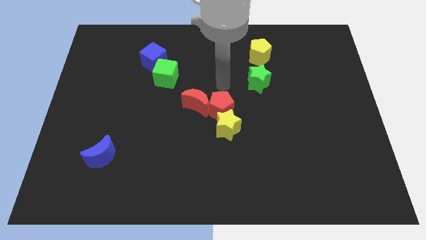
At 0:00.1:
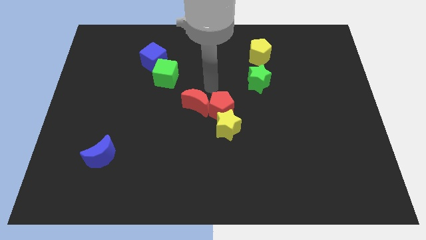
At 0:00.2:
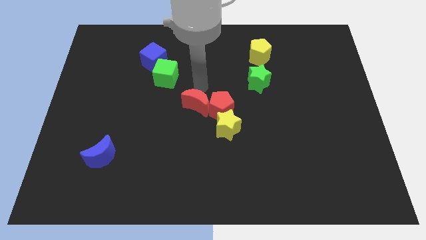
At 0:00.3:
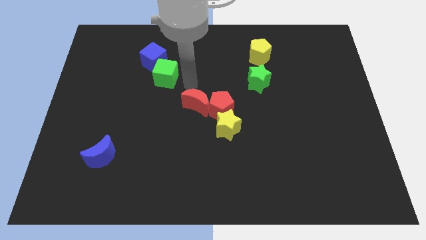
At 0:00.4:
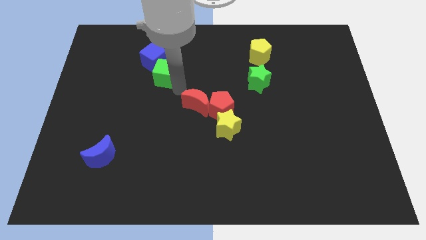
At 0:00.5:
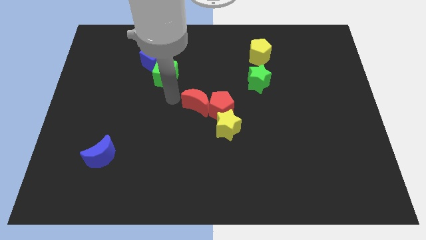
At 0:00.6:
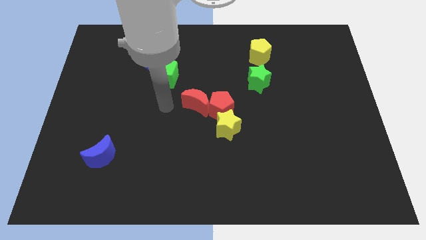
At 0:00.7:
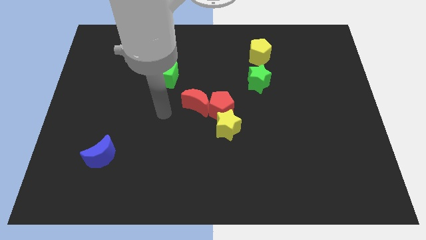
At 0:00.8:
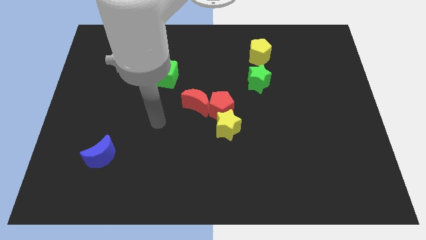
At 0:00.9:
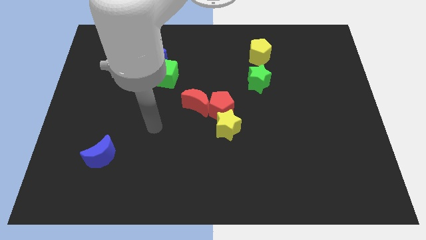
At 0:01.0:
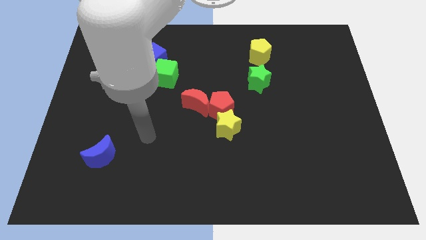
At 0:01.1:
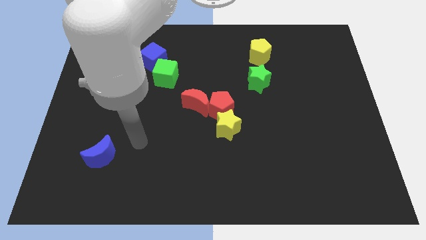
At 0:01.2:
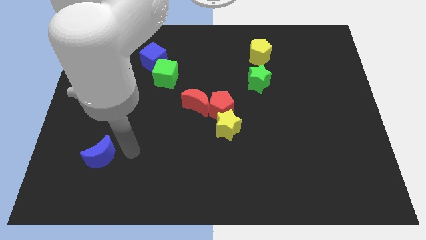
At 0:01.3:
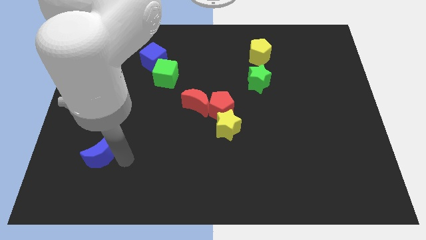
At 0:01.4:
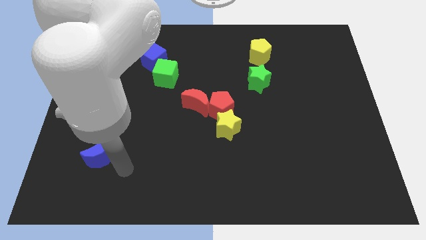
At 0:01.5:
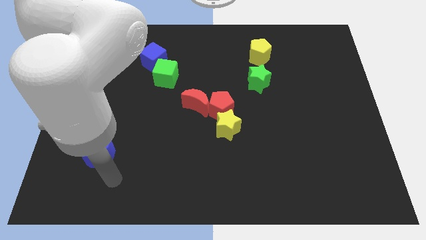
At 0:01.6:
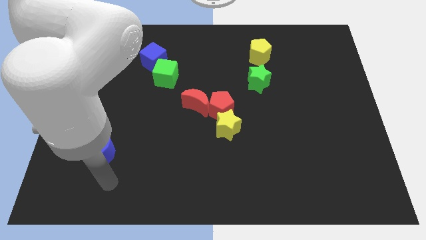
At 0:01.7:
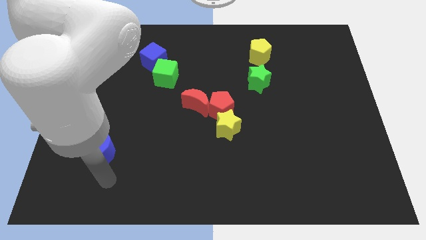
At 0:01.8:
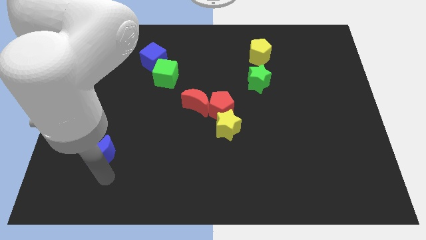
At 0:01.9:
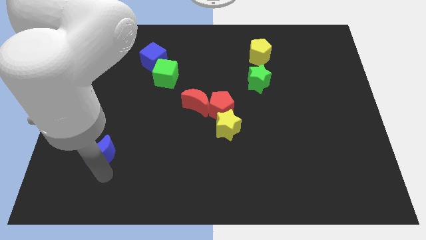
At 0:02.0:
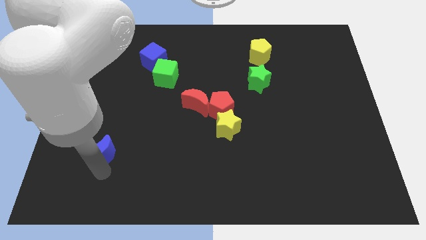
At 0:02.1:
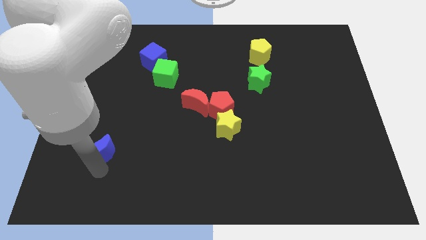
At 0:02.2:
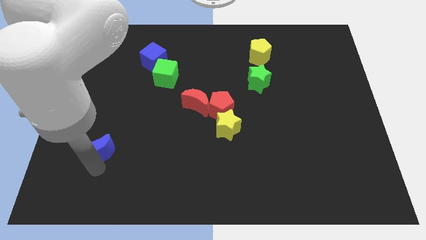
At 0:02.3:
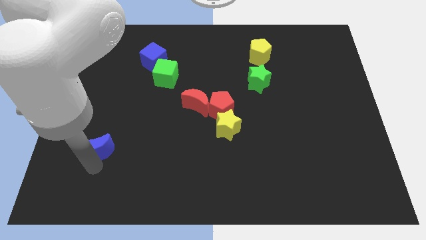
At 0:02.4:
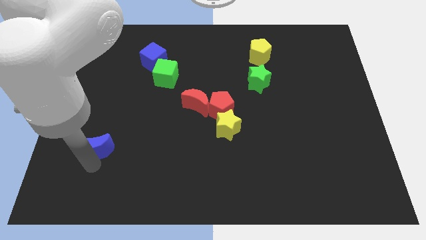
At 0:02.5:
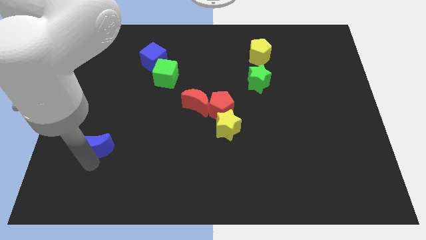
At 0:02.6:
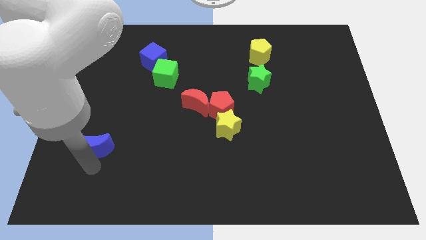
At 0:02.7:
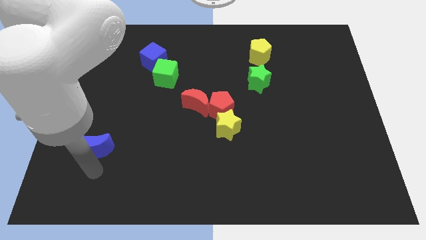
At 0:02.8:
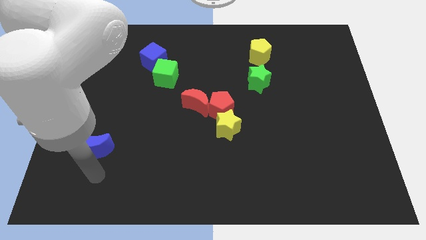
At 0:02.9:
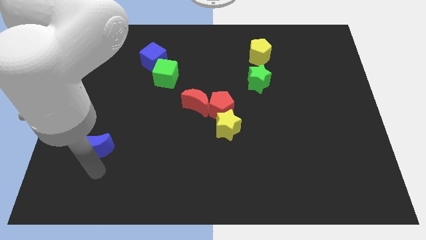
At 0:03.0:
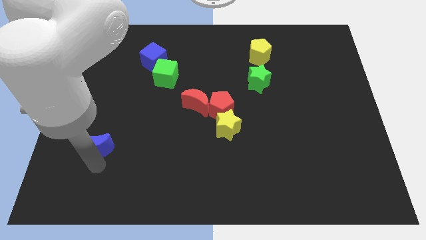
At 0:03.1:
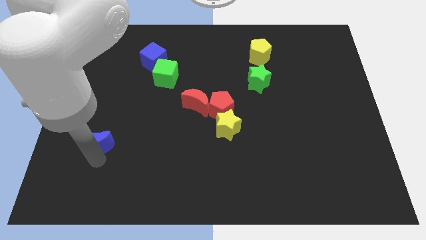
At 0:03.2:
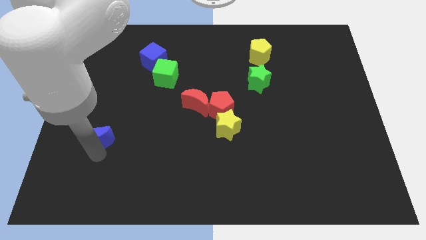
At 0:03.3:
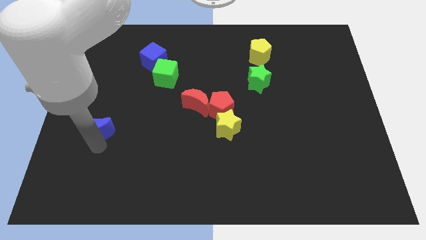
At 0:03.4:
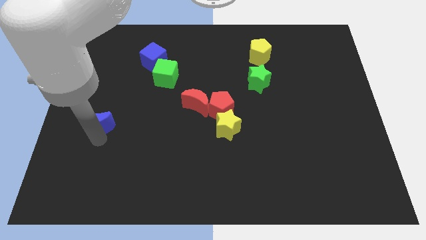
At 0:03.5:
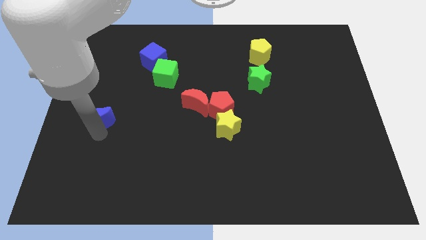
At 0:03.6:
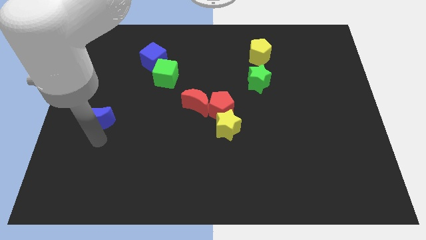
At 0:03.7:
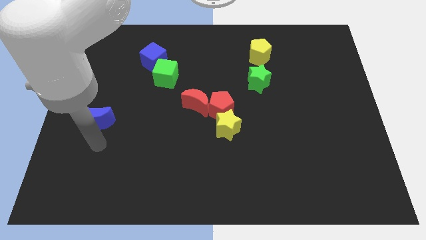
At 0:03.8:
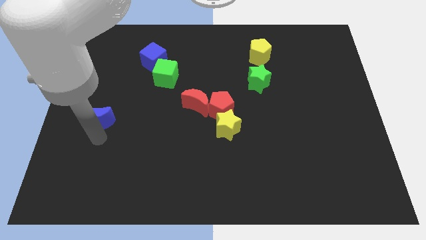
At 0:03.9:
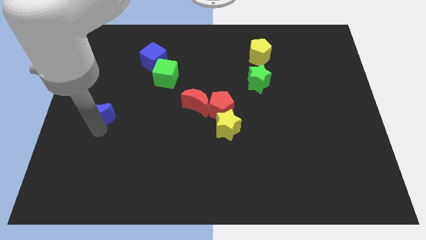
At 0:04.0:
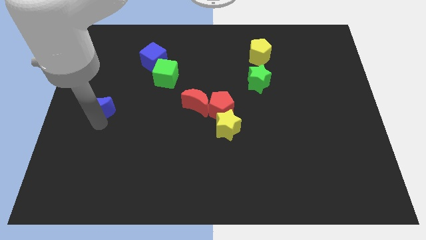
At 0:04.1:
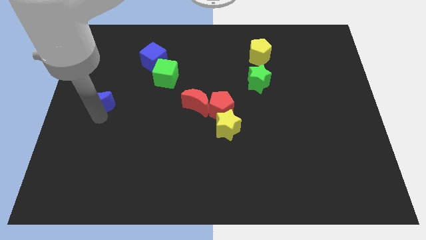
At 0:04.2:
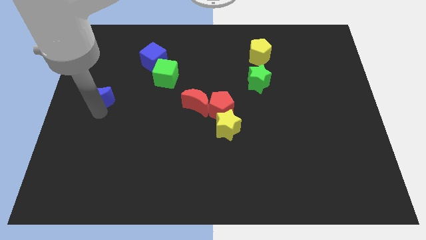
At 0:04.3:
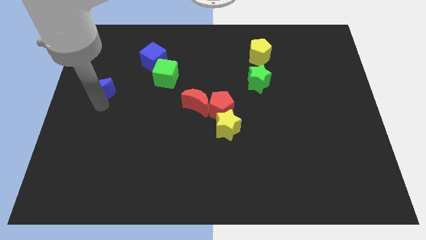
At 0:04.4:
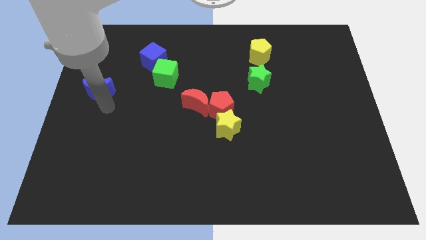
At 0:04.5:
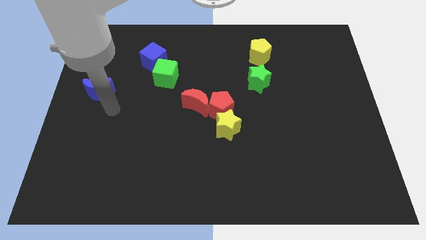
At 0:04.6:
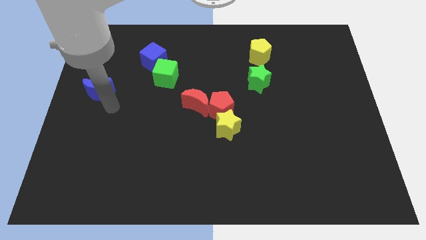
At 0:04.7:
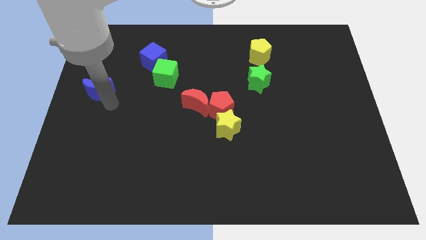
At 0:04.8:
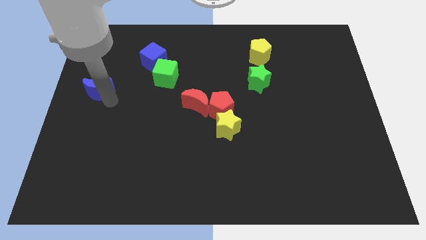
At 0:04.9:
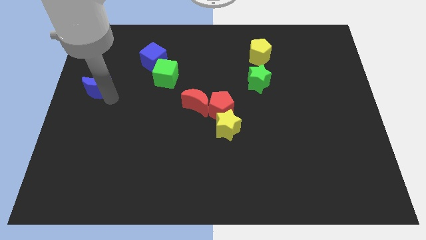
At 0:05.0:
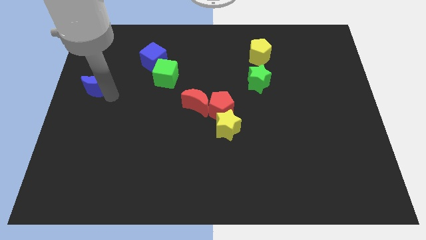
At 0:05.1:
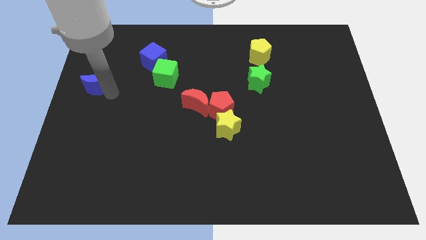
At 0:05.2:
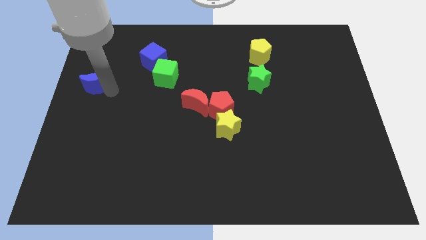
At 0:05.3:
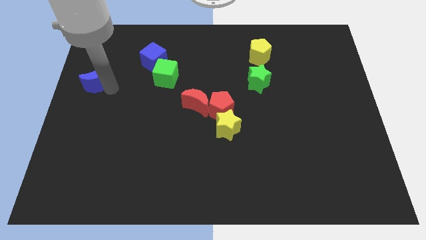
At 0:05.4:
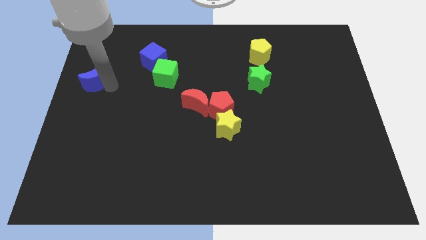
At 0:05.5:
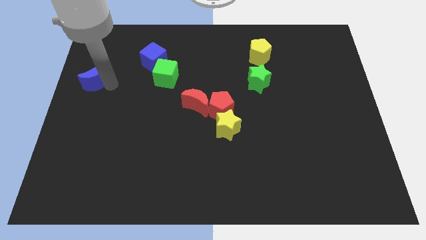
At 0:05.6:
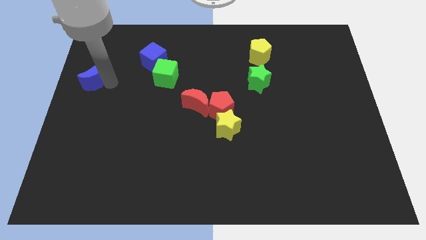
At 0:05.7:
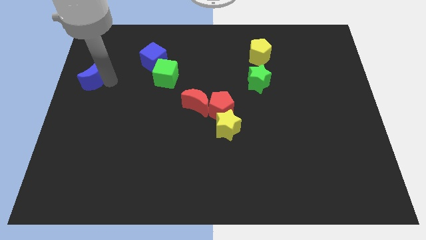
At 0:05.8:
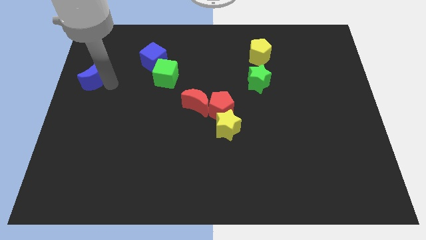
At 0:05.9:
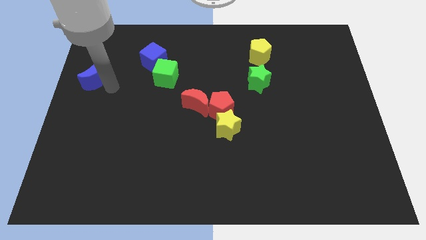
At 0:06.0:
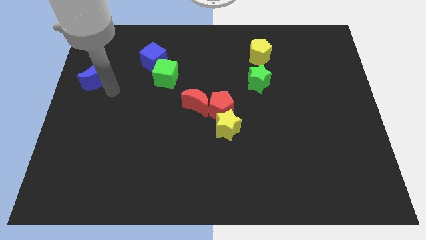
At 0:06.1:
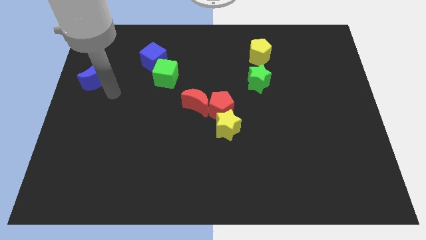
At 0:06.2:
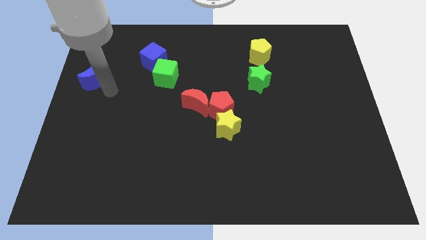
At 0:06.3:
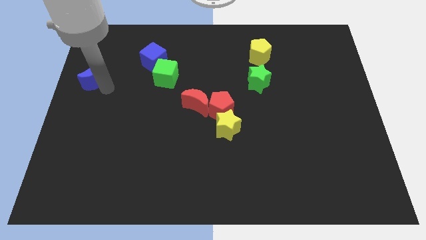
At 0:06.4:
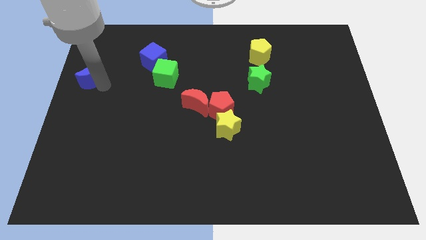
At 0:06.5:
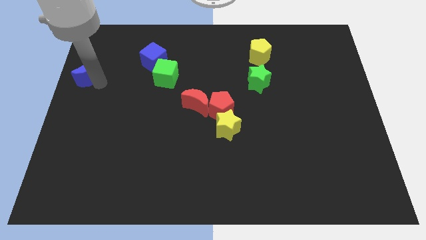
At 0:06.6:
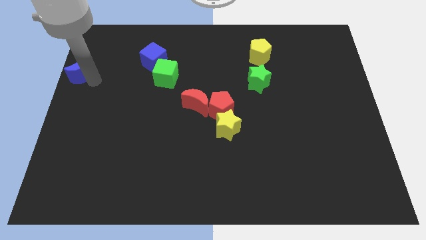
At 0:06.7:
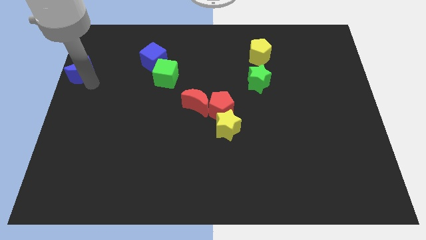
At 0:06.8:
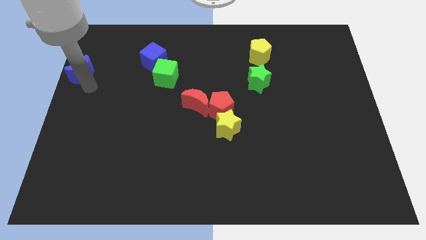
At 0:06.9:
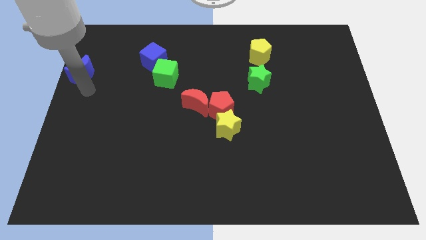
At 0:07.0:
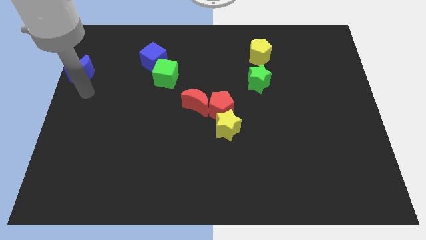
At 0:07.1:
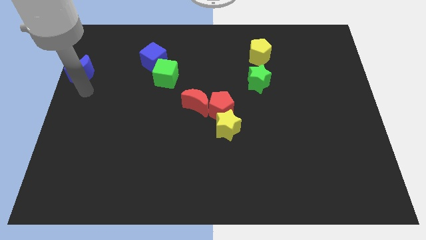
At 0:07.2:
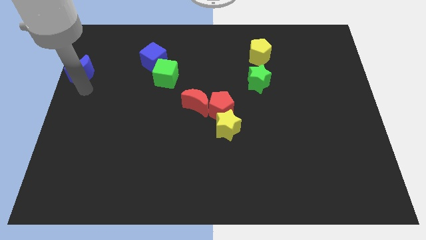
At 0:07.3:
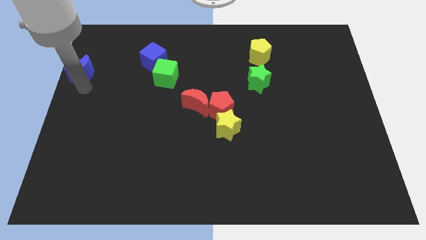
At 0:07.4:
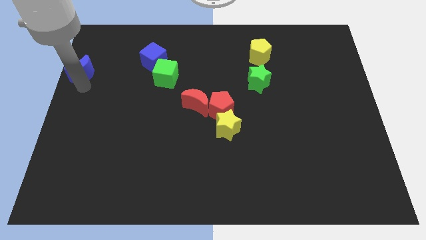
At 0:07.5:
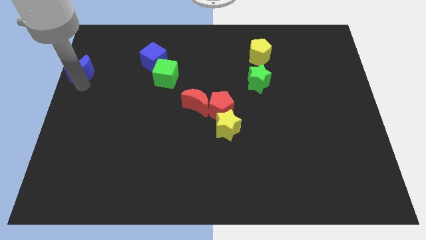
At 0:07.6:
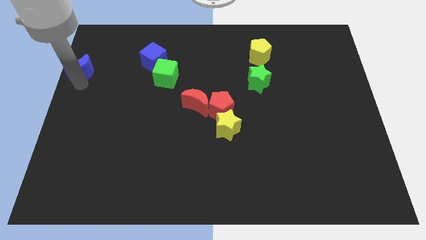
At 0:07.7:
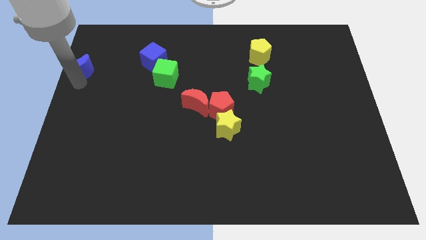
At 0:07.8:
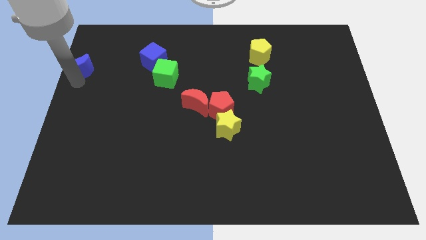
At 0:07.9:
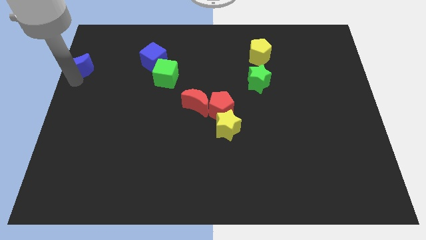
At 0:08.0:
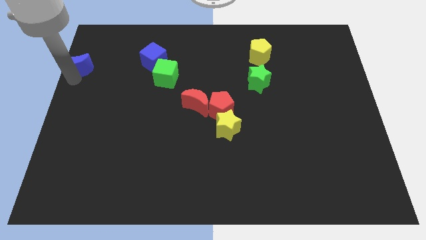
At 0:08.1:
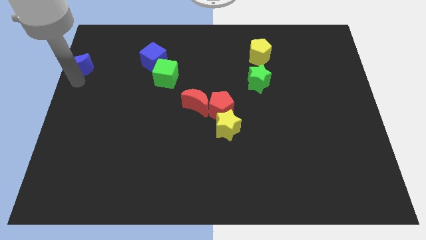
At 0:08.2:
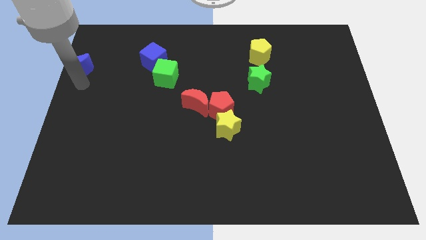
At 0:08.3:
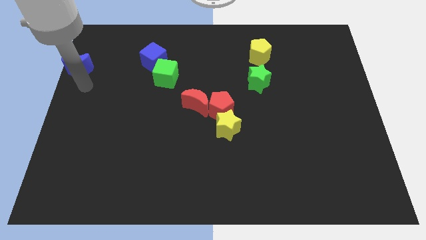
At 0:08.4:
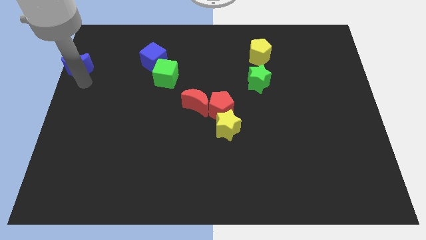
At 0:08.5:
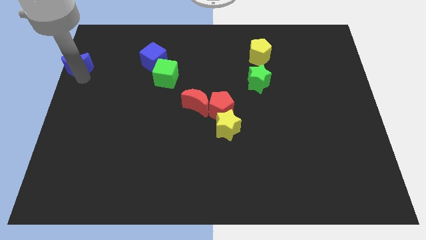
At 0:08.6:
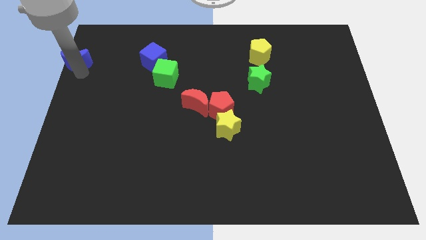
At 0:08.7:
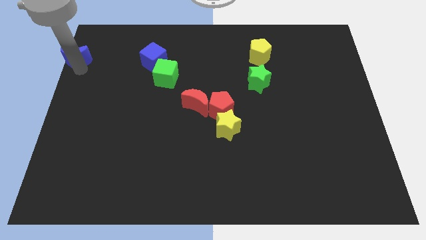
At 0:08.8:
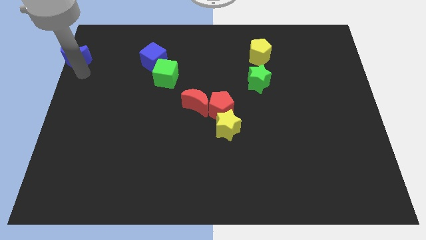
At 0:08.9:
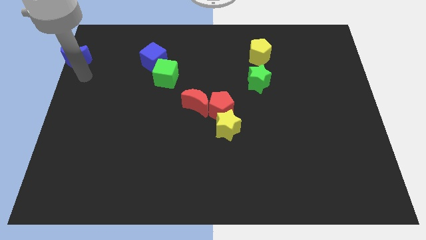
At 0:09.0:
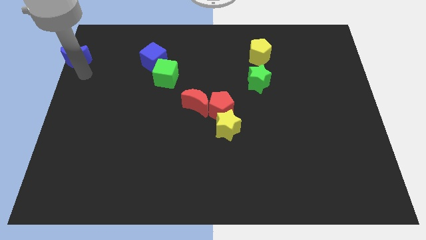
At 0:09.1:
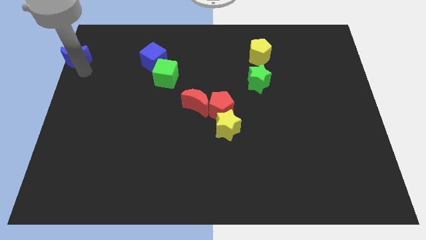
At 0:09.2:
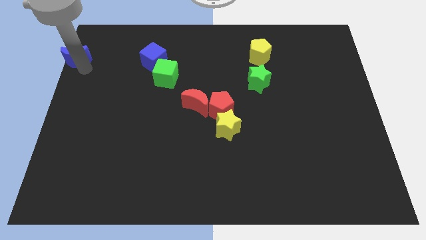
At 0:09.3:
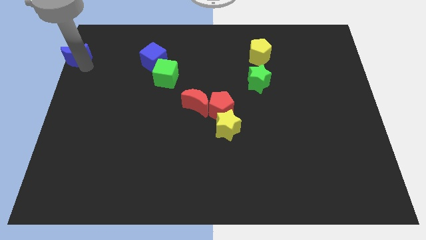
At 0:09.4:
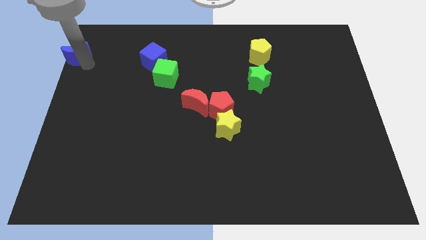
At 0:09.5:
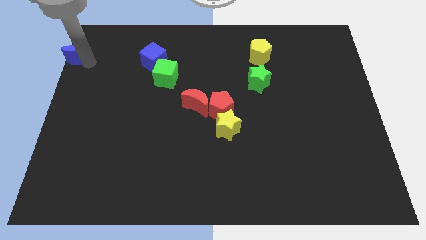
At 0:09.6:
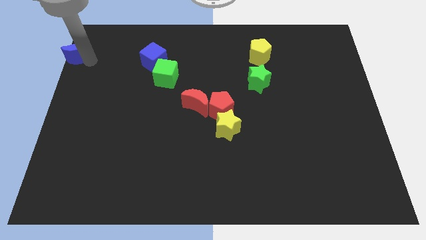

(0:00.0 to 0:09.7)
put the blue moon to the top left of the board
